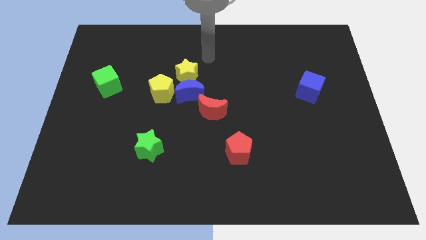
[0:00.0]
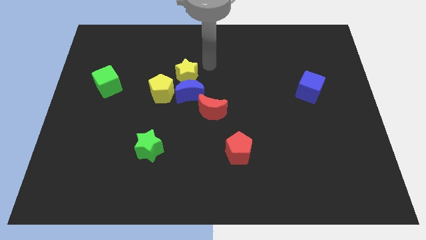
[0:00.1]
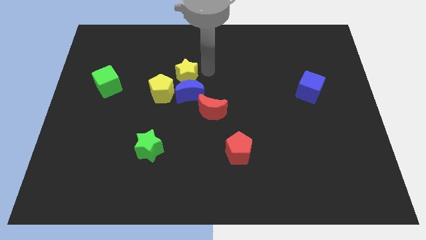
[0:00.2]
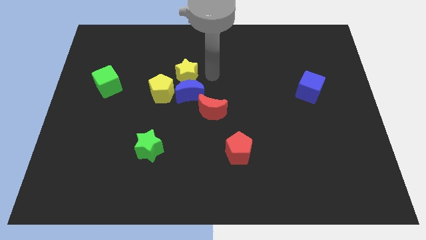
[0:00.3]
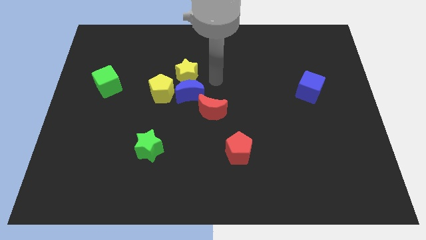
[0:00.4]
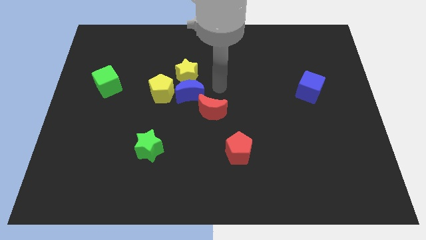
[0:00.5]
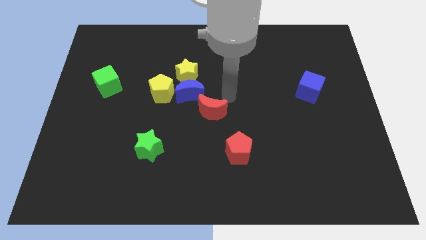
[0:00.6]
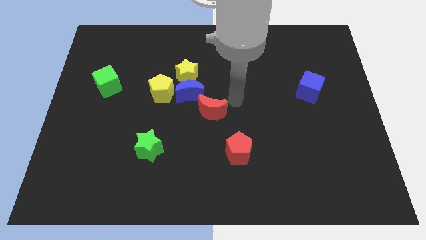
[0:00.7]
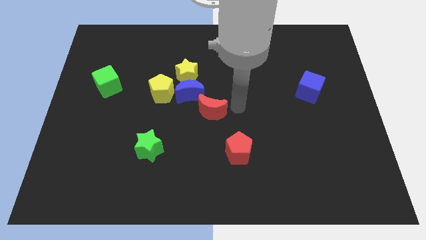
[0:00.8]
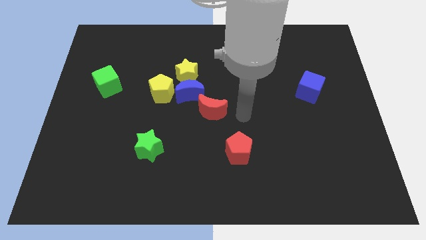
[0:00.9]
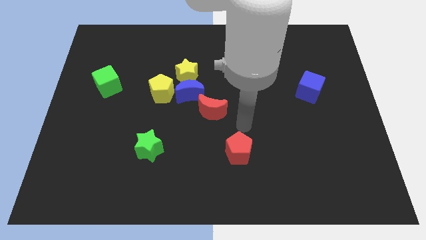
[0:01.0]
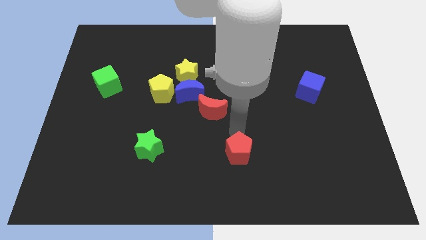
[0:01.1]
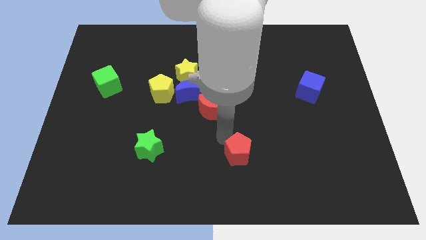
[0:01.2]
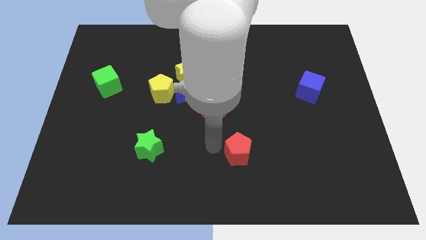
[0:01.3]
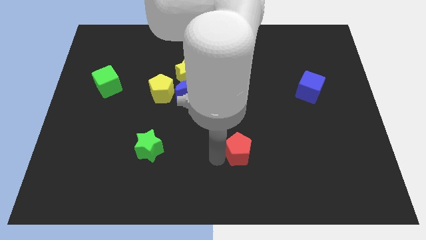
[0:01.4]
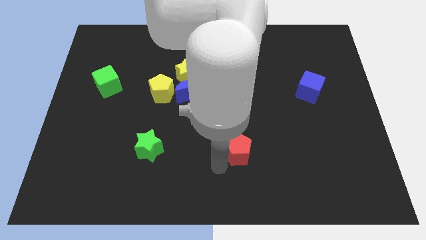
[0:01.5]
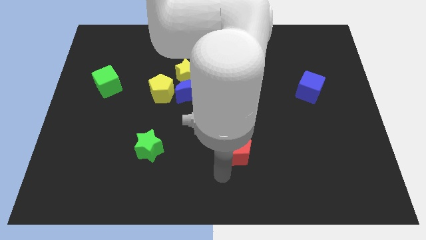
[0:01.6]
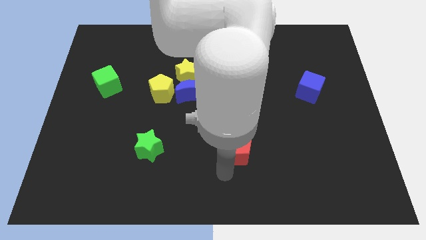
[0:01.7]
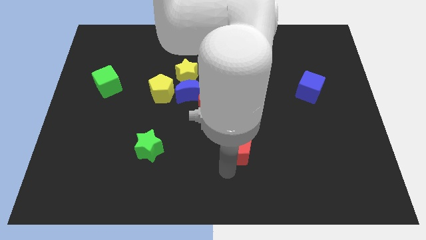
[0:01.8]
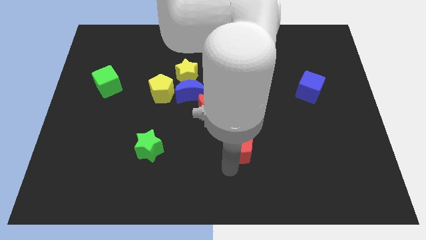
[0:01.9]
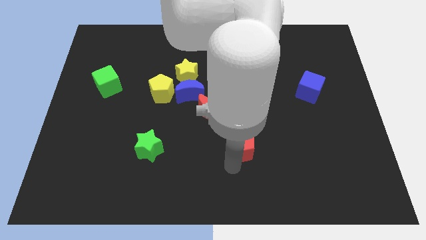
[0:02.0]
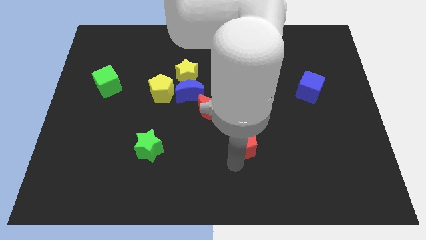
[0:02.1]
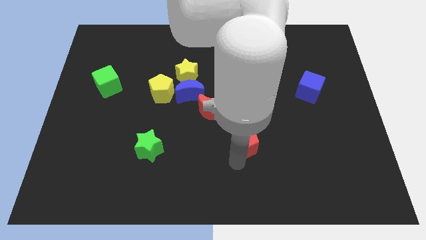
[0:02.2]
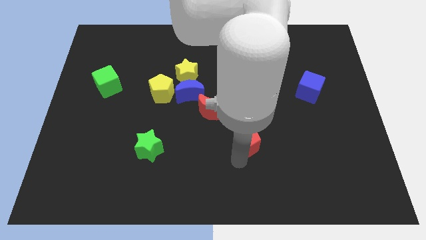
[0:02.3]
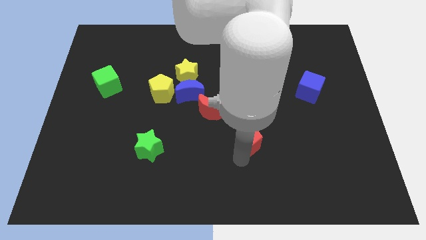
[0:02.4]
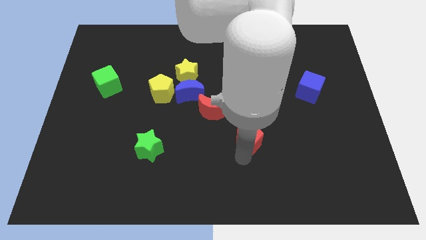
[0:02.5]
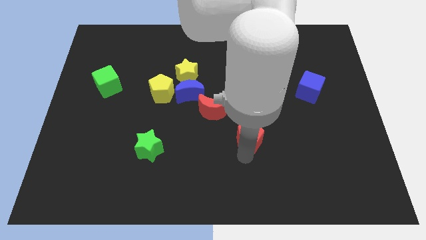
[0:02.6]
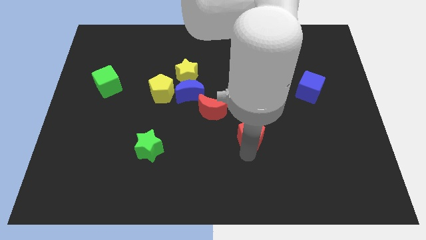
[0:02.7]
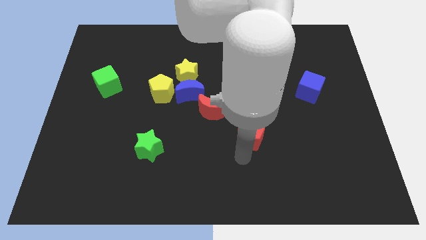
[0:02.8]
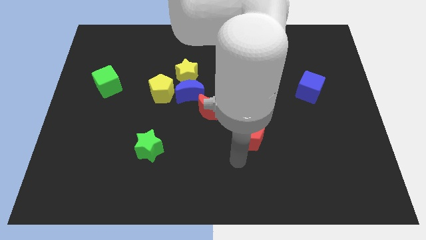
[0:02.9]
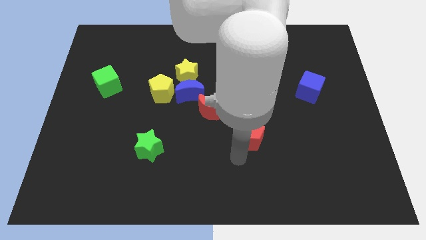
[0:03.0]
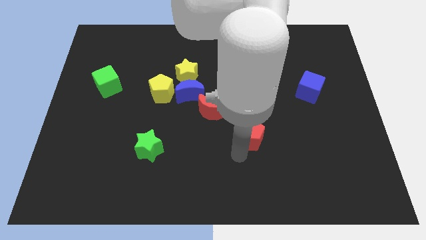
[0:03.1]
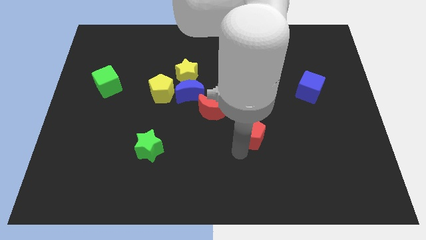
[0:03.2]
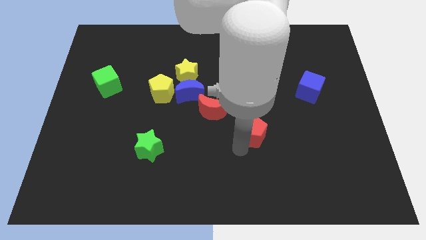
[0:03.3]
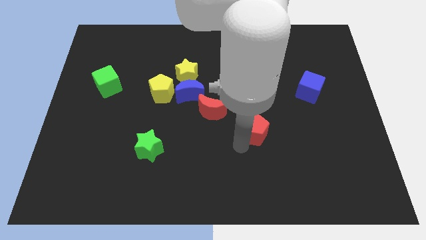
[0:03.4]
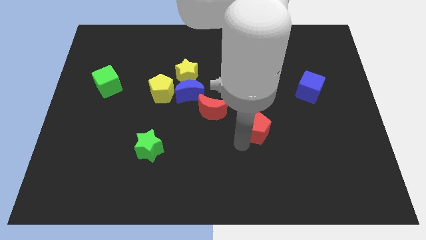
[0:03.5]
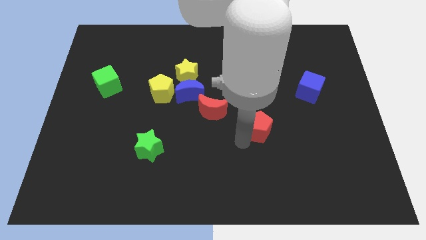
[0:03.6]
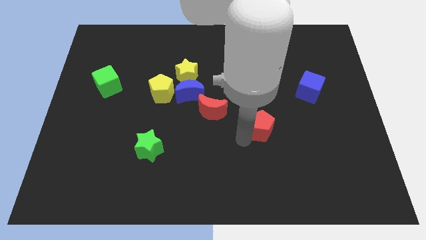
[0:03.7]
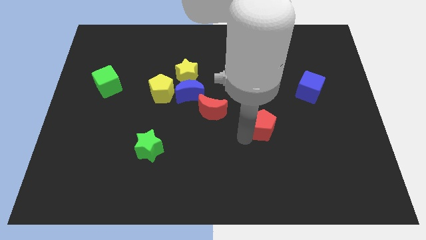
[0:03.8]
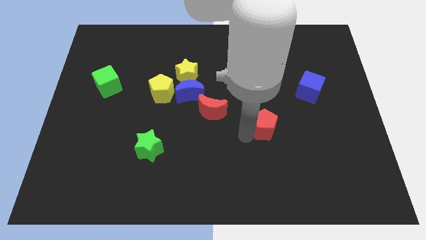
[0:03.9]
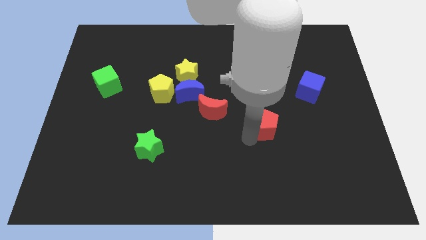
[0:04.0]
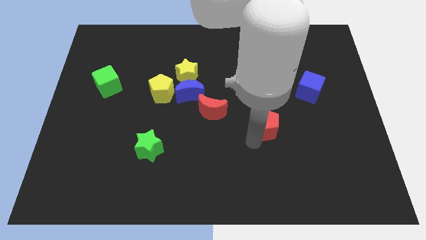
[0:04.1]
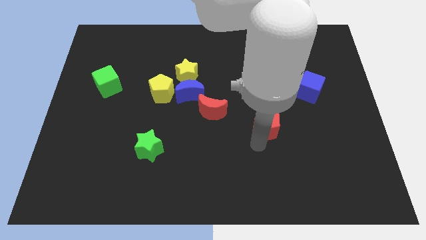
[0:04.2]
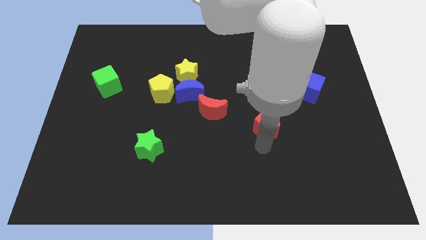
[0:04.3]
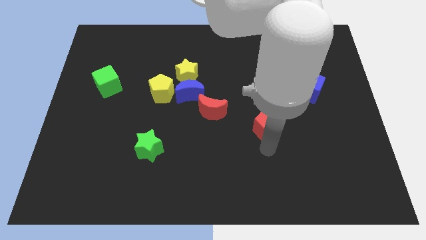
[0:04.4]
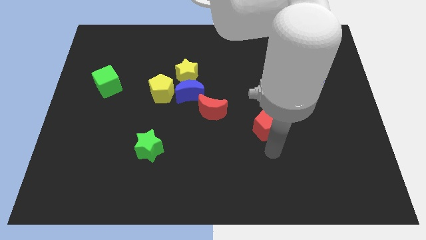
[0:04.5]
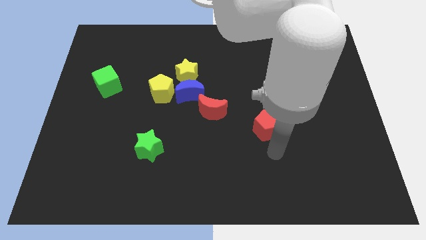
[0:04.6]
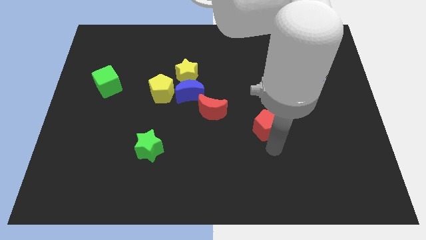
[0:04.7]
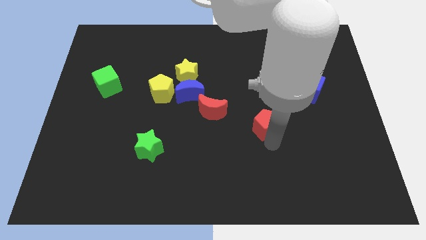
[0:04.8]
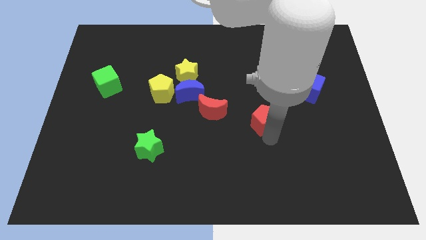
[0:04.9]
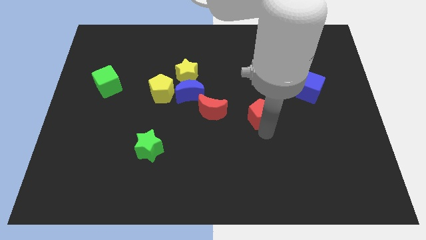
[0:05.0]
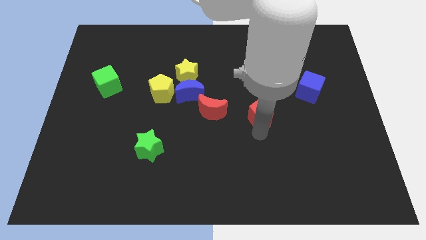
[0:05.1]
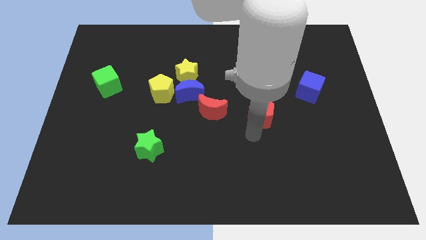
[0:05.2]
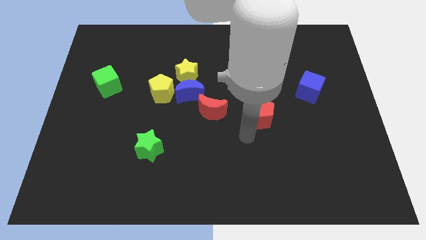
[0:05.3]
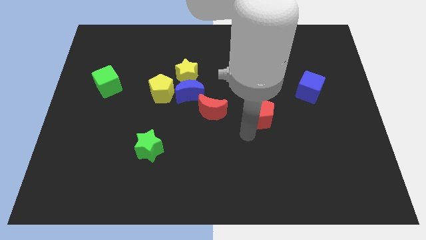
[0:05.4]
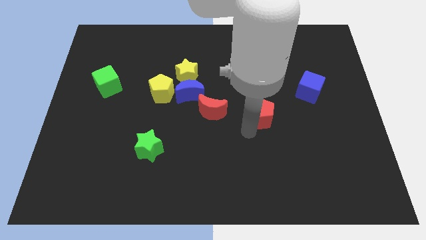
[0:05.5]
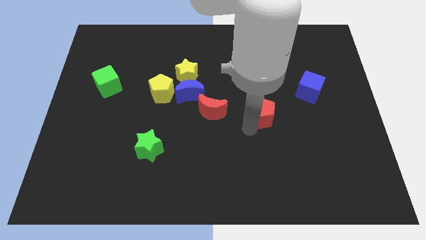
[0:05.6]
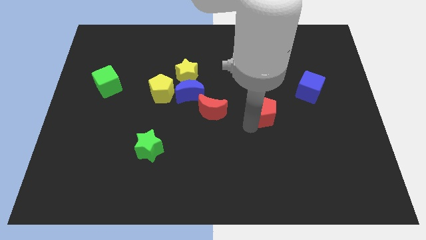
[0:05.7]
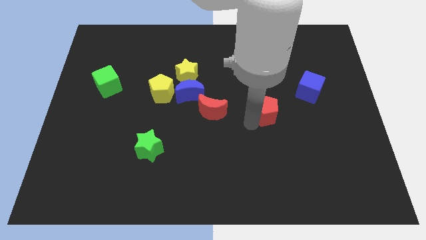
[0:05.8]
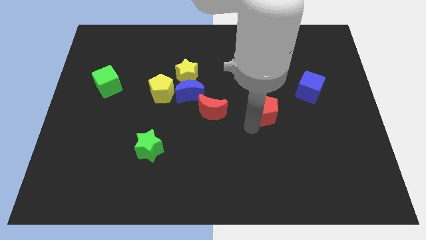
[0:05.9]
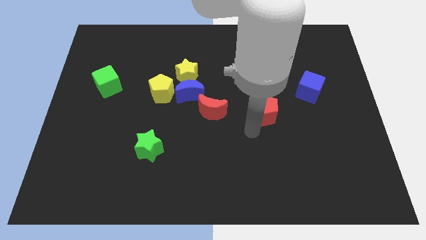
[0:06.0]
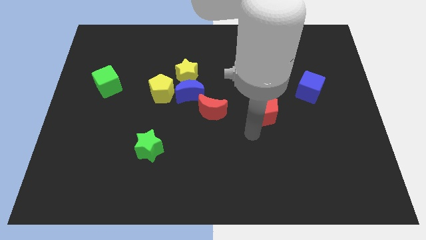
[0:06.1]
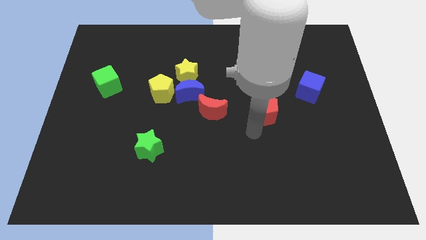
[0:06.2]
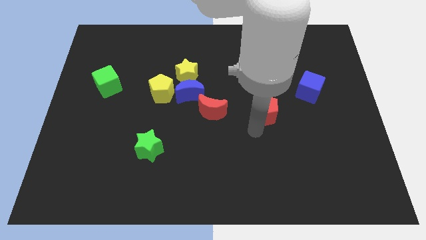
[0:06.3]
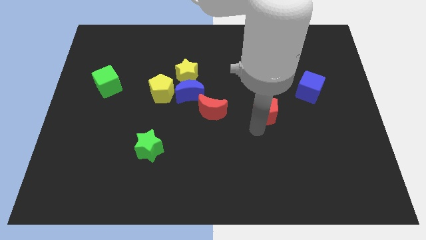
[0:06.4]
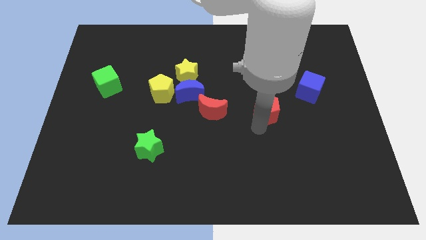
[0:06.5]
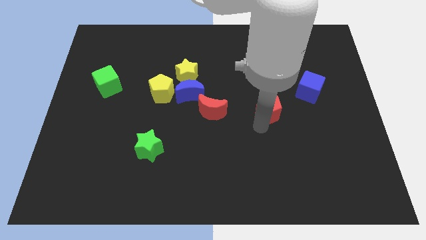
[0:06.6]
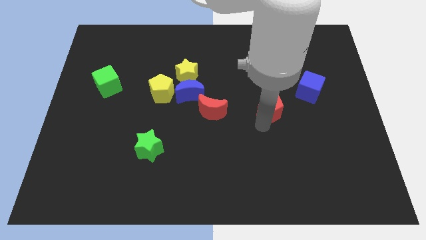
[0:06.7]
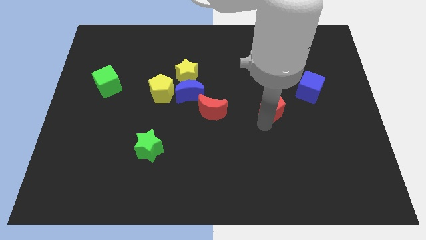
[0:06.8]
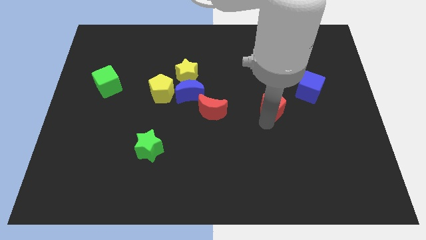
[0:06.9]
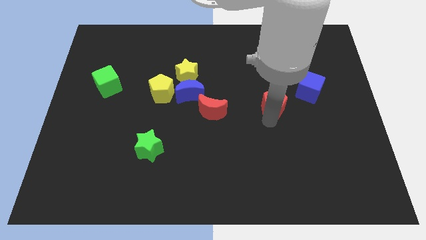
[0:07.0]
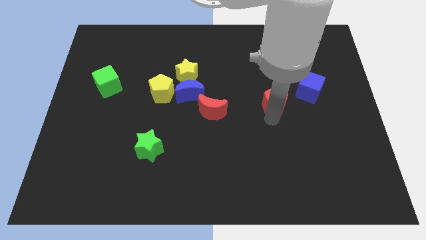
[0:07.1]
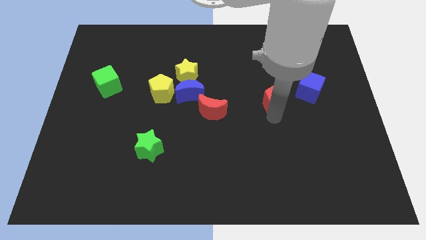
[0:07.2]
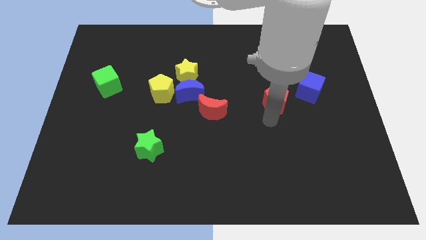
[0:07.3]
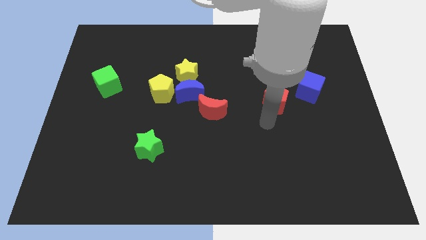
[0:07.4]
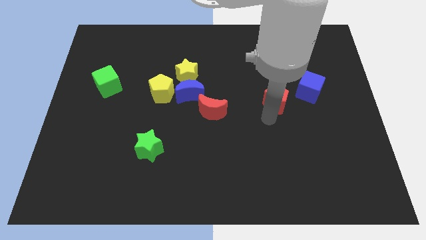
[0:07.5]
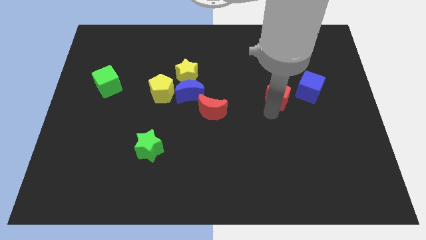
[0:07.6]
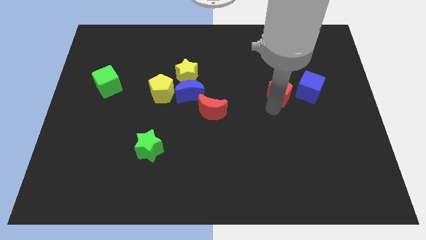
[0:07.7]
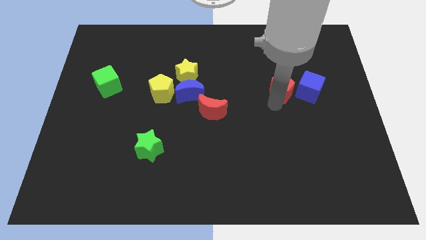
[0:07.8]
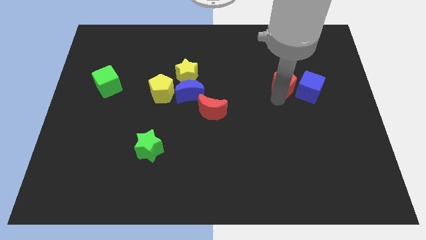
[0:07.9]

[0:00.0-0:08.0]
put the red pentagon to the top left of the blue cube
